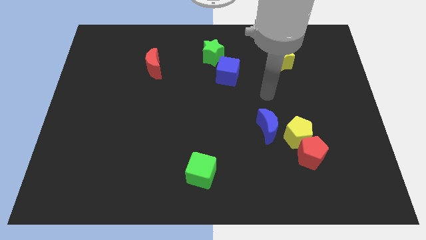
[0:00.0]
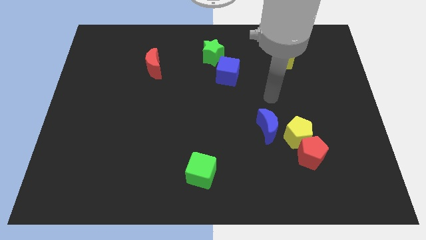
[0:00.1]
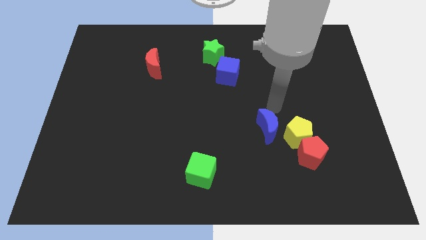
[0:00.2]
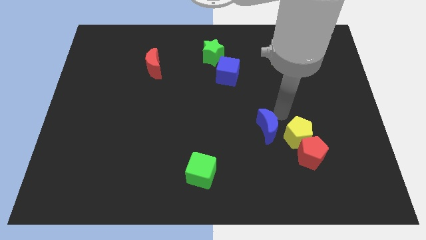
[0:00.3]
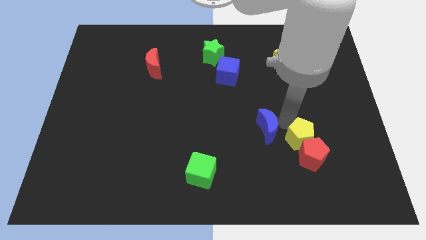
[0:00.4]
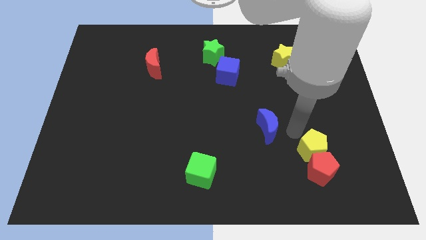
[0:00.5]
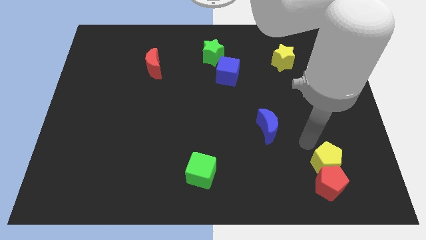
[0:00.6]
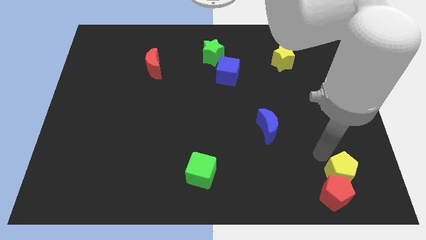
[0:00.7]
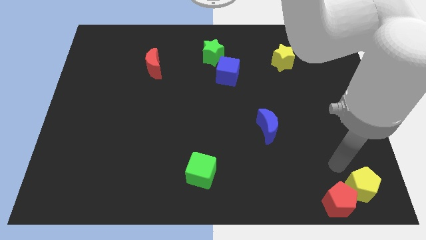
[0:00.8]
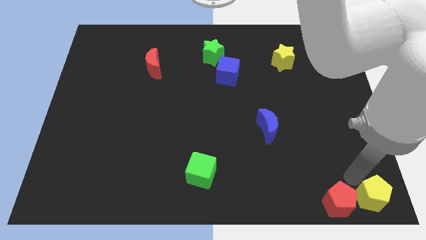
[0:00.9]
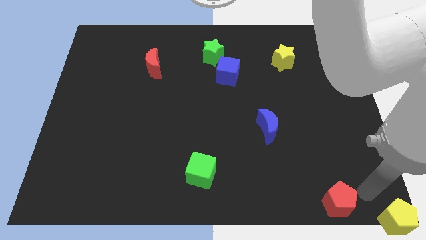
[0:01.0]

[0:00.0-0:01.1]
move the red pentagon away from the yellow pentagon

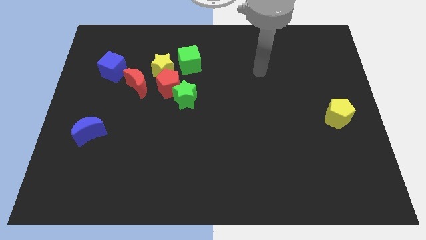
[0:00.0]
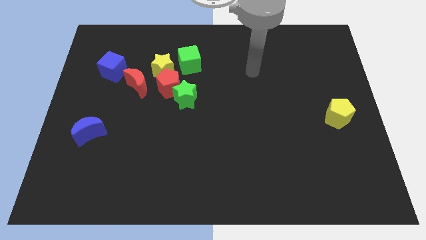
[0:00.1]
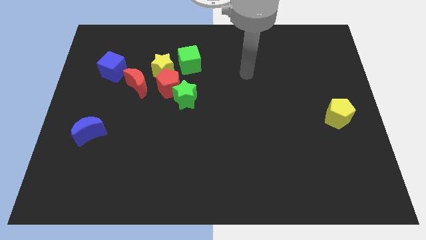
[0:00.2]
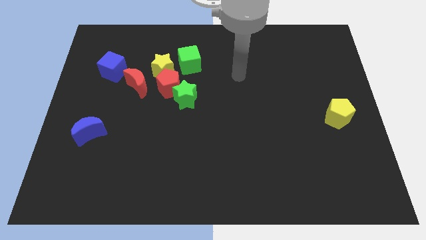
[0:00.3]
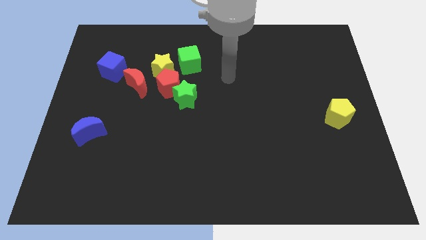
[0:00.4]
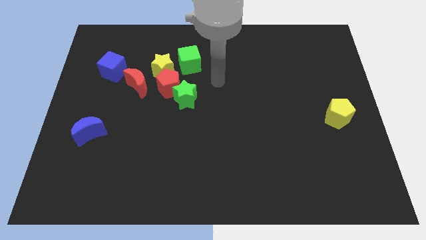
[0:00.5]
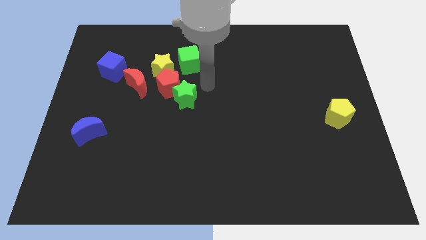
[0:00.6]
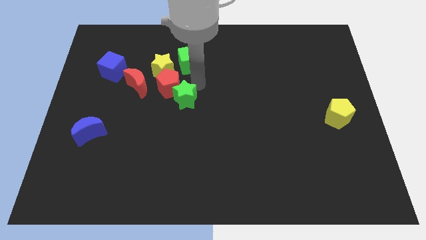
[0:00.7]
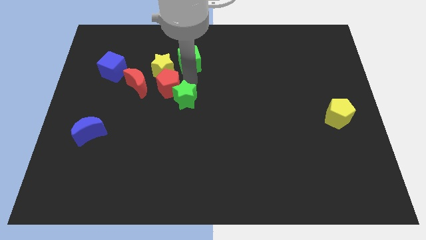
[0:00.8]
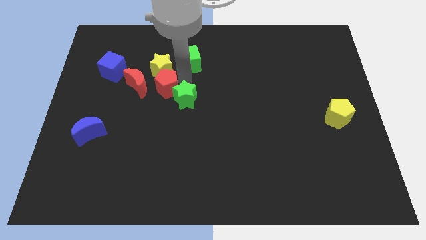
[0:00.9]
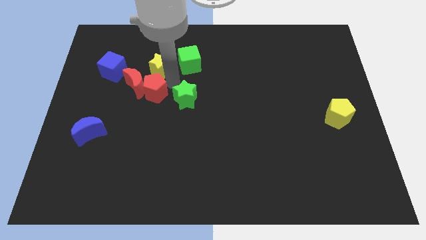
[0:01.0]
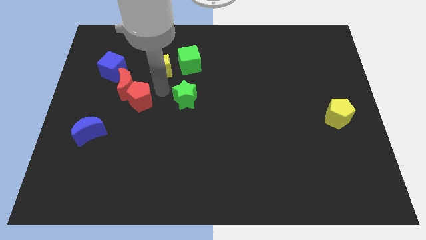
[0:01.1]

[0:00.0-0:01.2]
separate the green star from the red pentagon

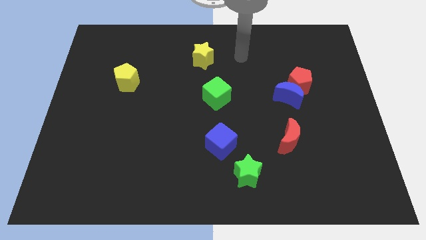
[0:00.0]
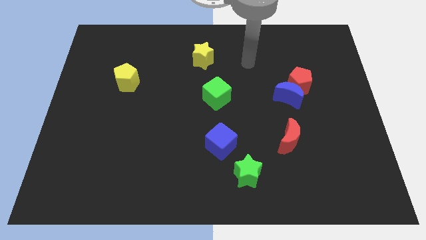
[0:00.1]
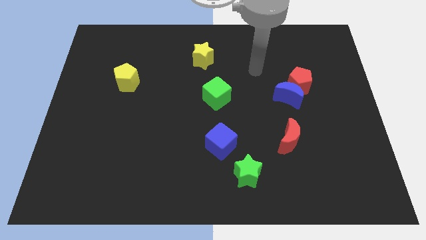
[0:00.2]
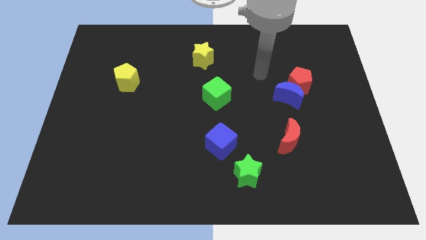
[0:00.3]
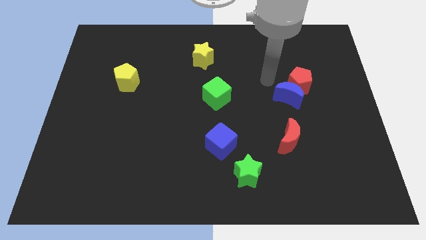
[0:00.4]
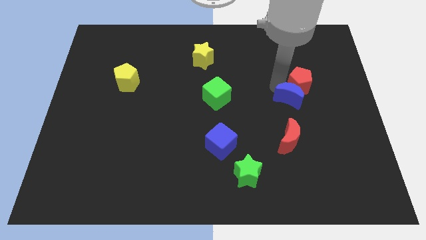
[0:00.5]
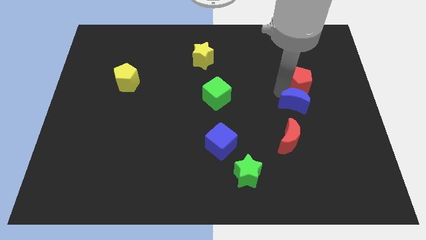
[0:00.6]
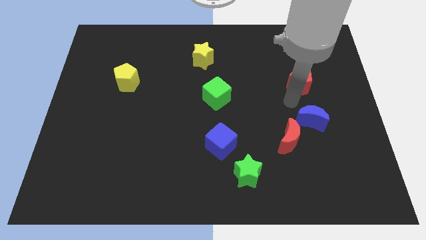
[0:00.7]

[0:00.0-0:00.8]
pull the red pentagon apart from the blue moon

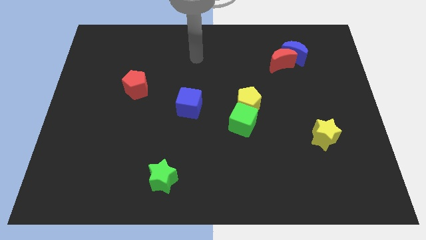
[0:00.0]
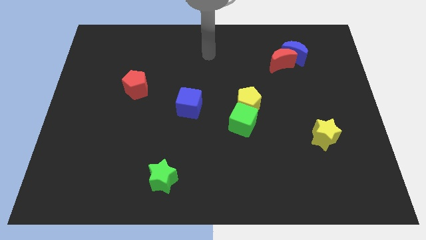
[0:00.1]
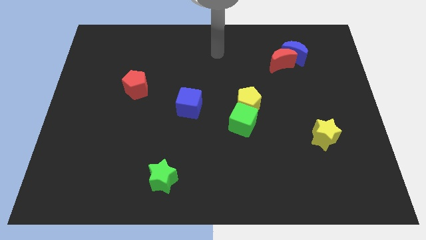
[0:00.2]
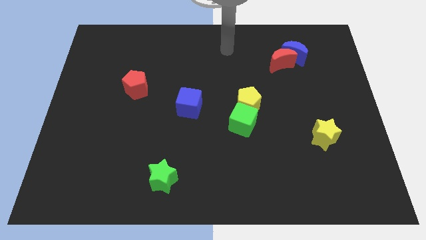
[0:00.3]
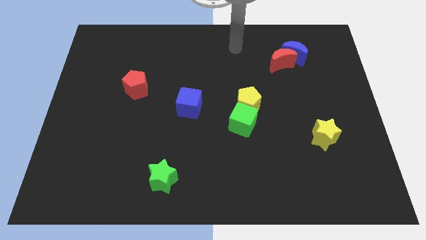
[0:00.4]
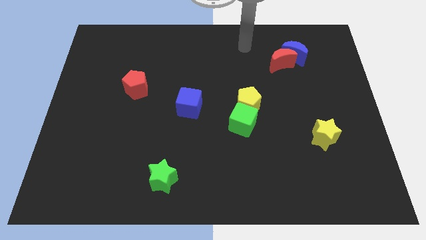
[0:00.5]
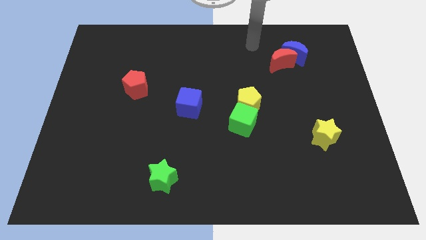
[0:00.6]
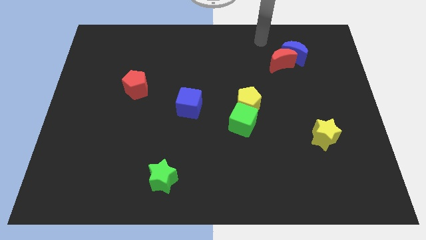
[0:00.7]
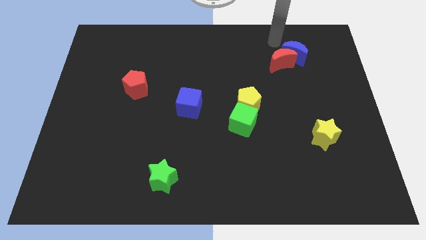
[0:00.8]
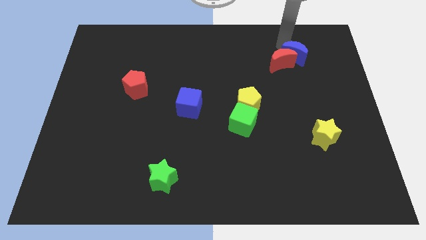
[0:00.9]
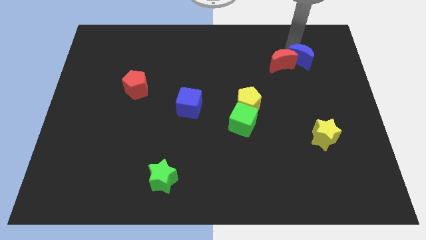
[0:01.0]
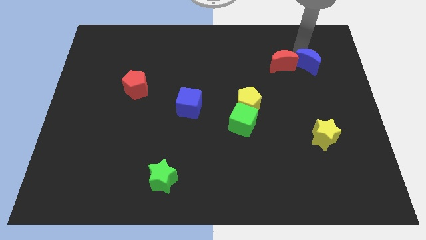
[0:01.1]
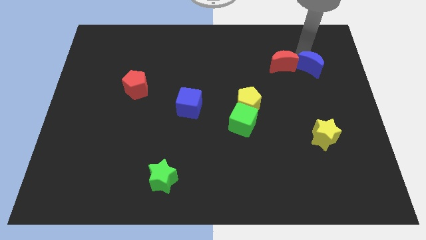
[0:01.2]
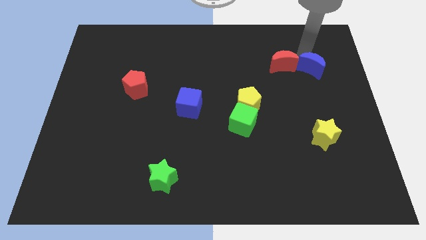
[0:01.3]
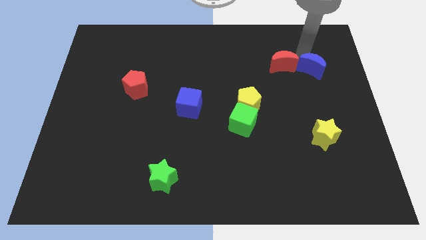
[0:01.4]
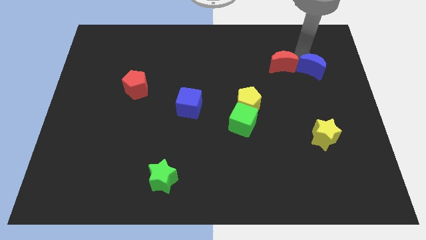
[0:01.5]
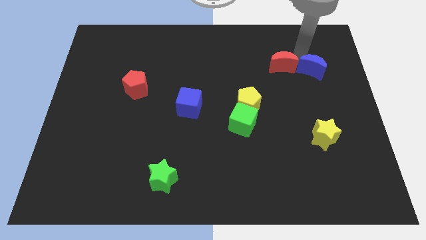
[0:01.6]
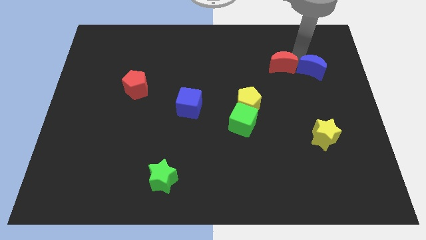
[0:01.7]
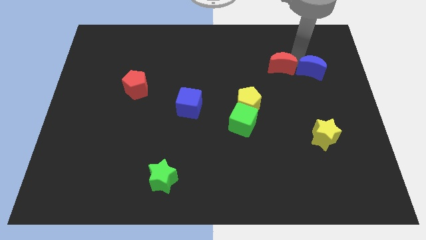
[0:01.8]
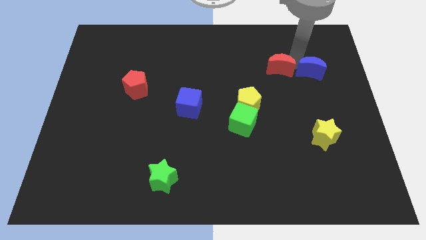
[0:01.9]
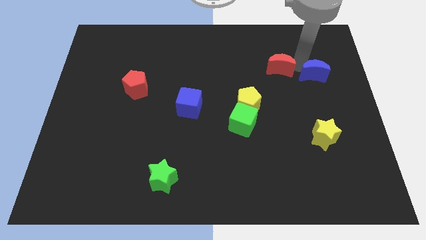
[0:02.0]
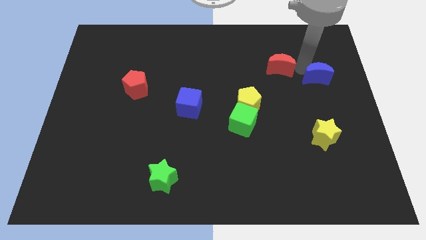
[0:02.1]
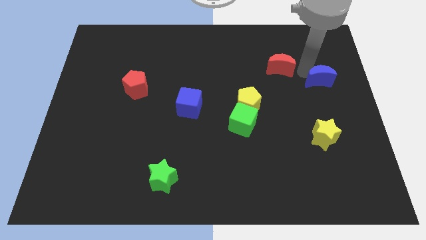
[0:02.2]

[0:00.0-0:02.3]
pull the red moon apart from the blue moon

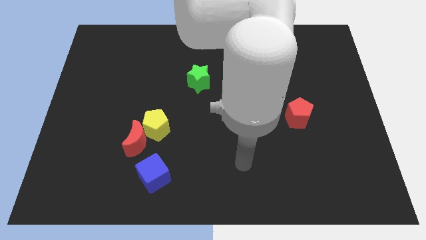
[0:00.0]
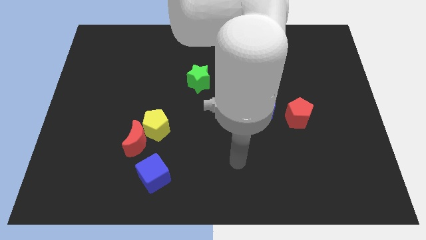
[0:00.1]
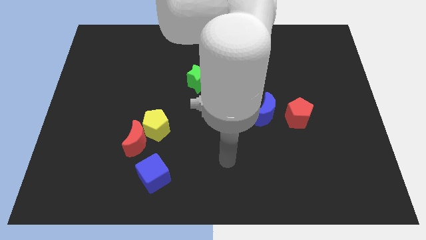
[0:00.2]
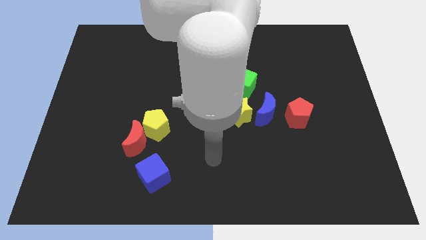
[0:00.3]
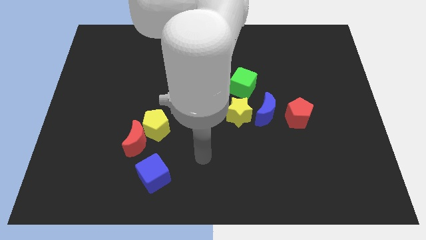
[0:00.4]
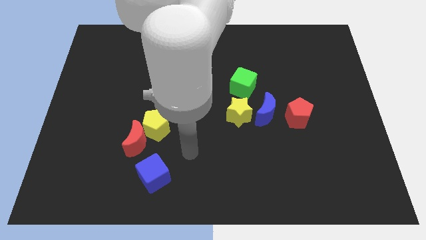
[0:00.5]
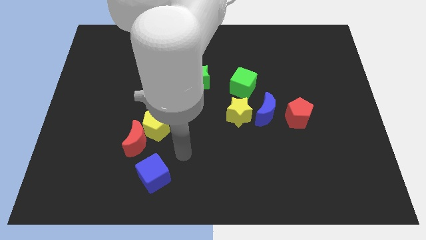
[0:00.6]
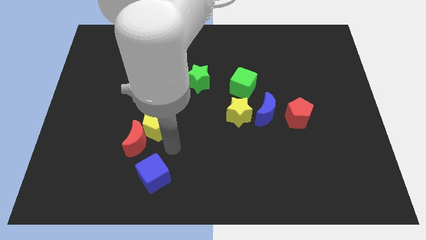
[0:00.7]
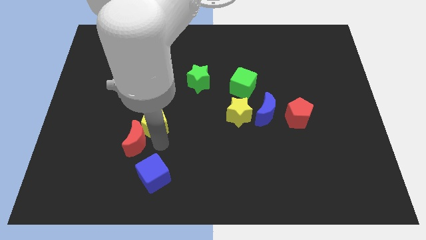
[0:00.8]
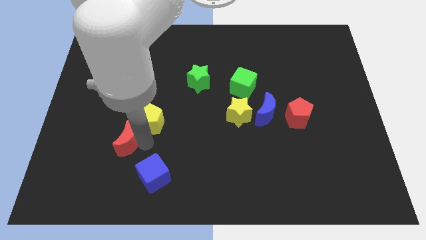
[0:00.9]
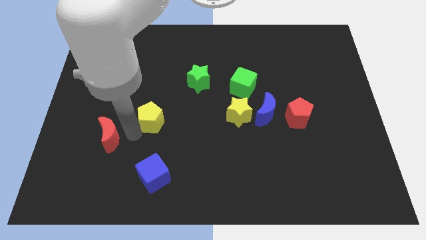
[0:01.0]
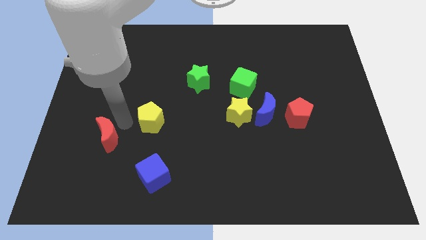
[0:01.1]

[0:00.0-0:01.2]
move the yellow pentagon away from the red moon

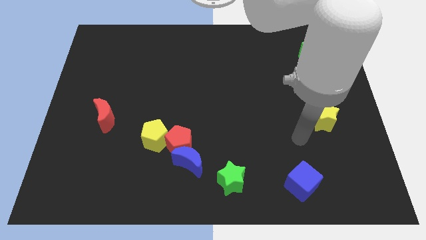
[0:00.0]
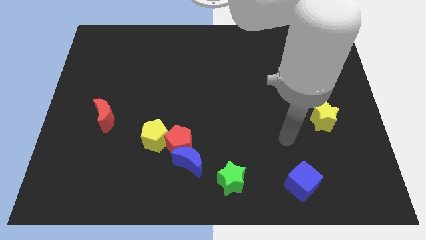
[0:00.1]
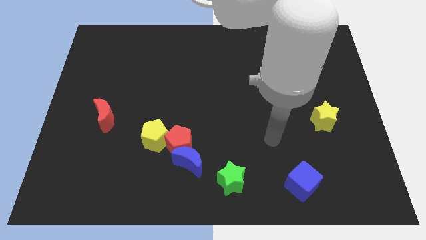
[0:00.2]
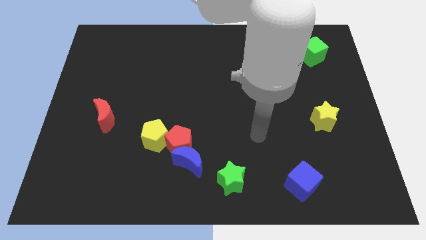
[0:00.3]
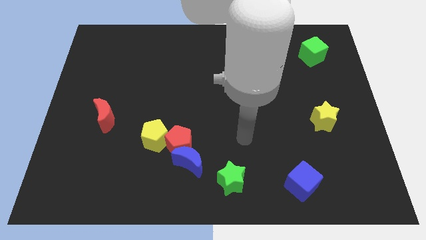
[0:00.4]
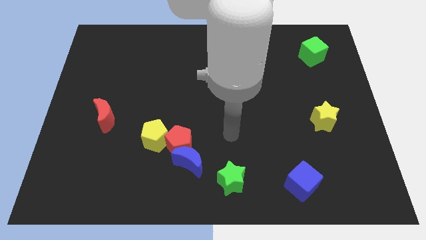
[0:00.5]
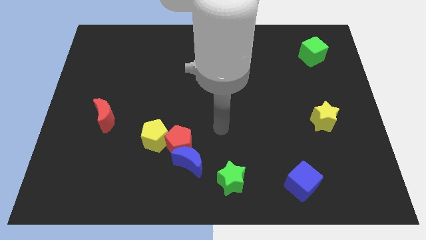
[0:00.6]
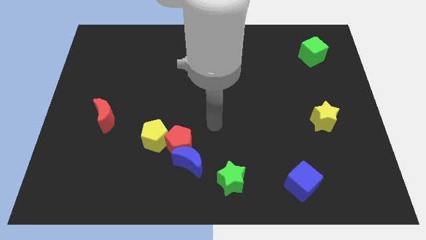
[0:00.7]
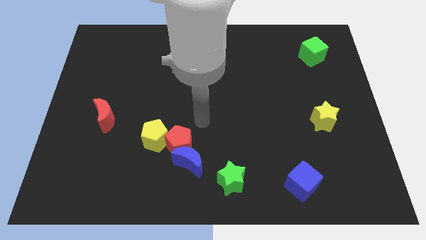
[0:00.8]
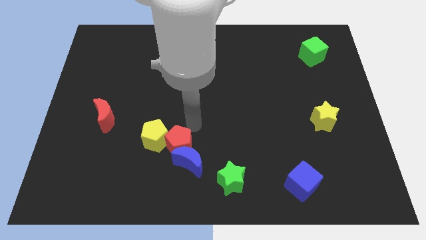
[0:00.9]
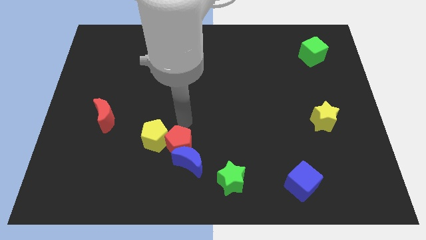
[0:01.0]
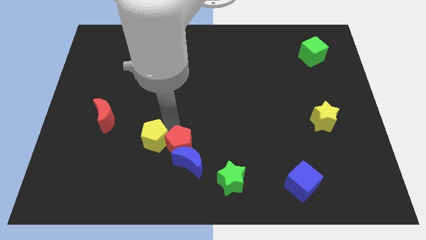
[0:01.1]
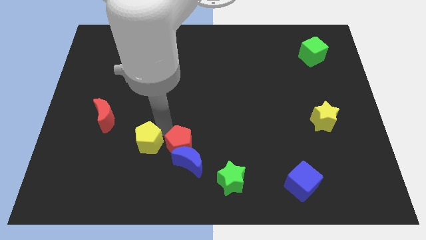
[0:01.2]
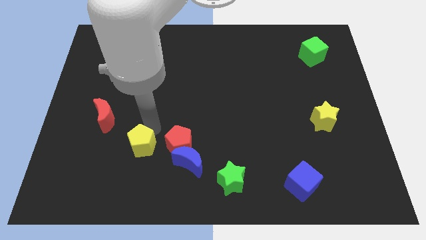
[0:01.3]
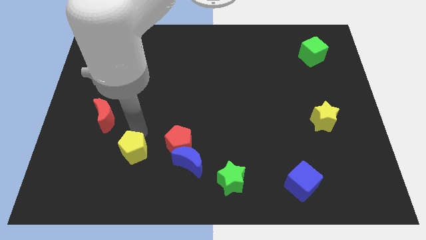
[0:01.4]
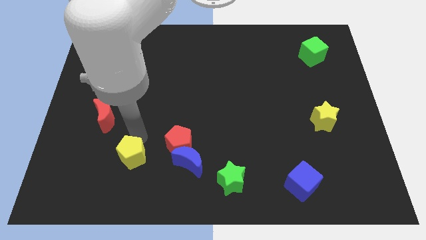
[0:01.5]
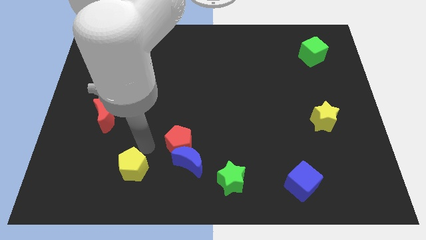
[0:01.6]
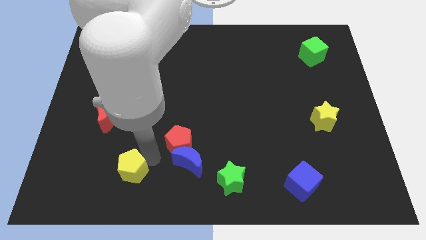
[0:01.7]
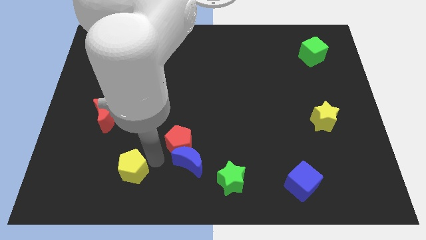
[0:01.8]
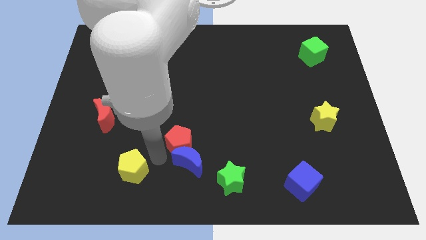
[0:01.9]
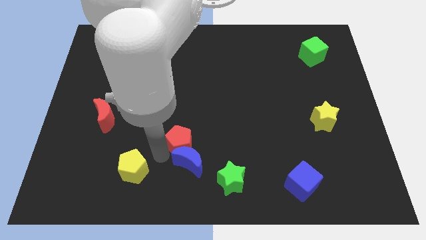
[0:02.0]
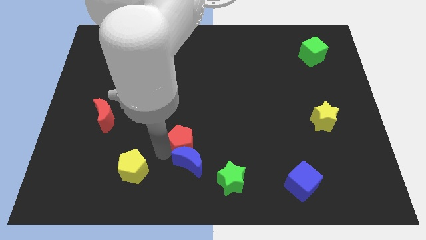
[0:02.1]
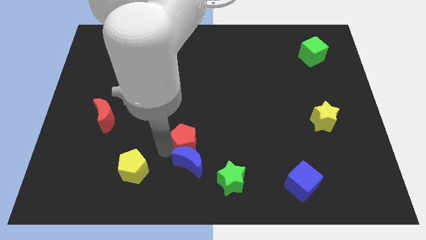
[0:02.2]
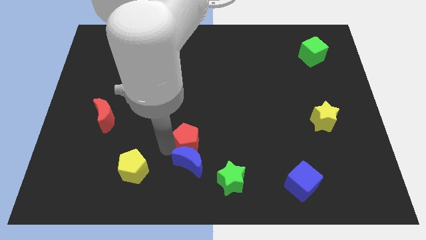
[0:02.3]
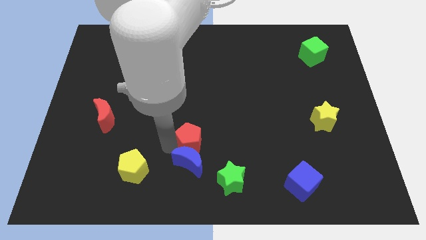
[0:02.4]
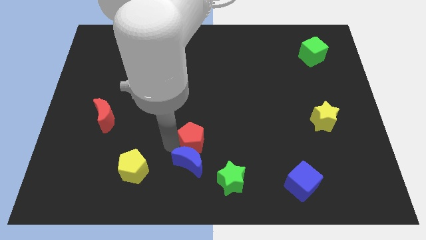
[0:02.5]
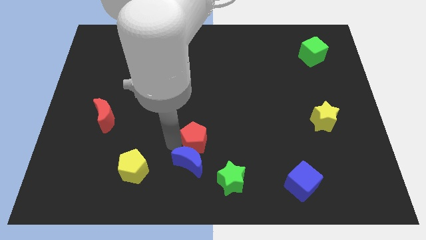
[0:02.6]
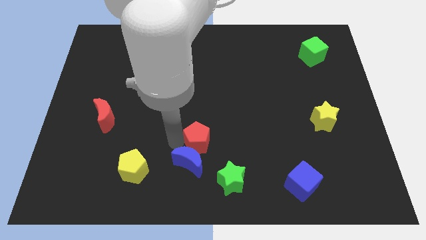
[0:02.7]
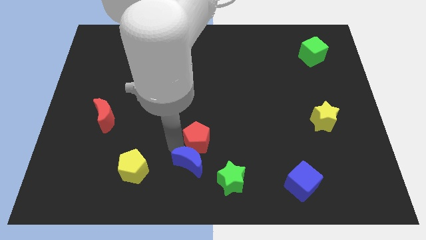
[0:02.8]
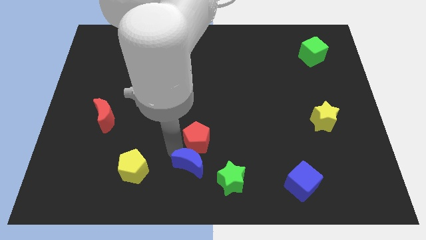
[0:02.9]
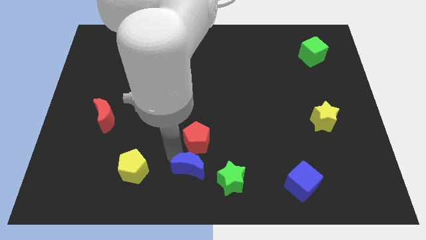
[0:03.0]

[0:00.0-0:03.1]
separate the red pentagon from the blue moon and yellow pentagon
